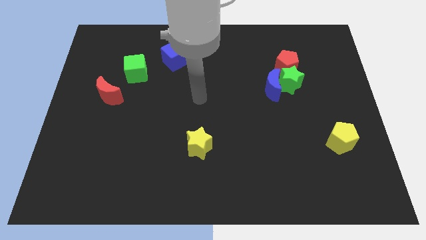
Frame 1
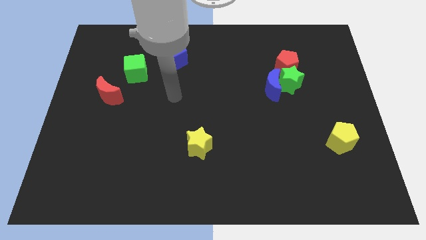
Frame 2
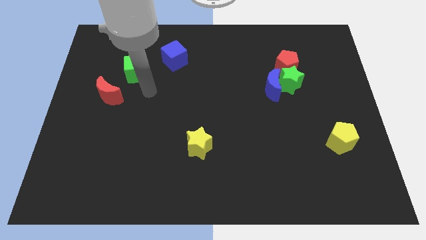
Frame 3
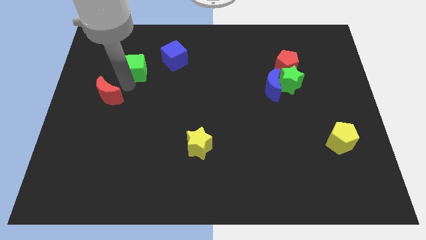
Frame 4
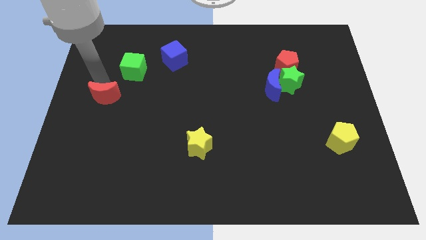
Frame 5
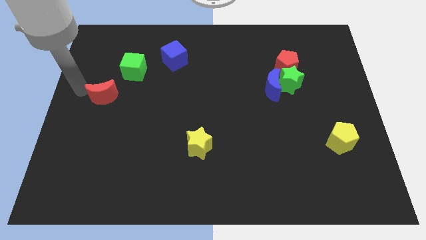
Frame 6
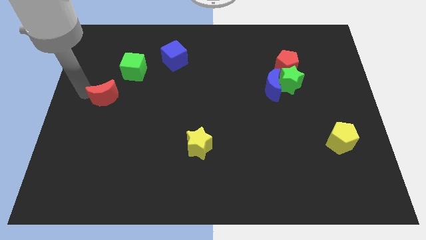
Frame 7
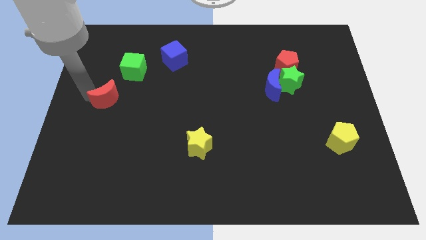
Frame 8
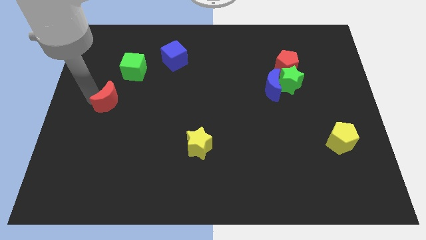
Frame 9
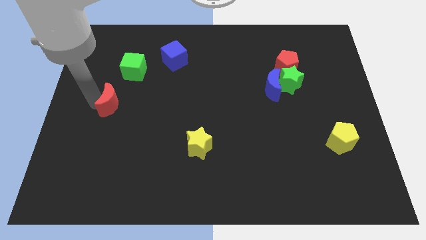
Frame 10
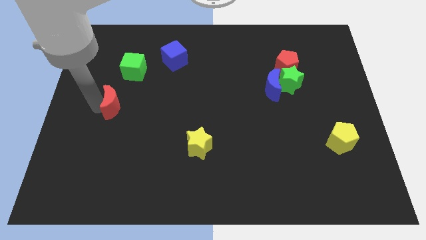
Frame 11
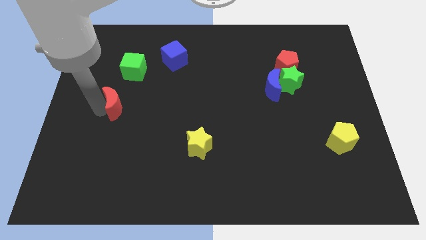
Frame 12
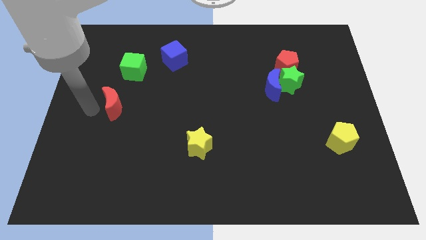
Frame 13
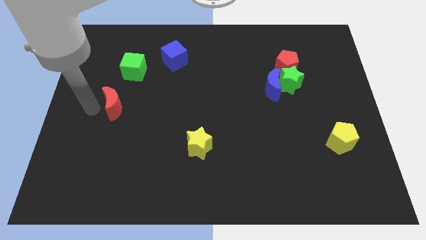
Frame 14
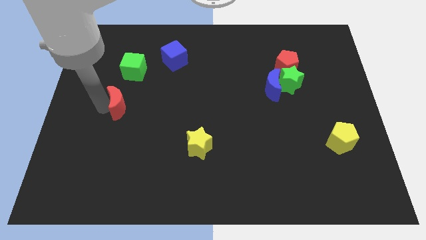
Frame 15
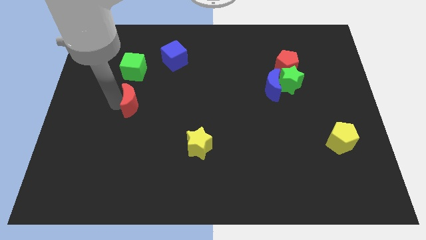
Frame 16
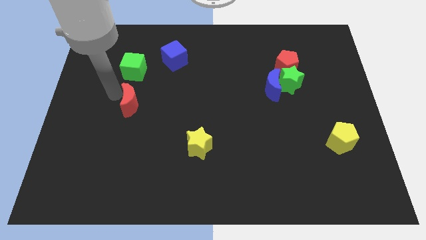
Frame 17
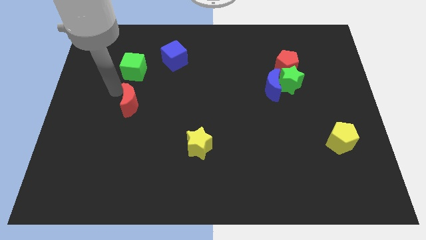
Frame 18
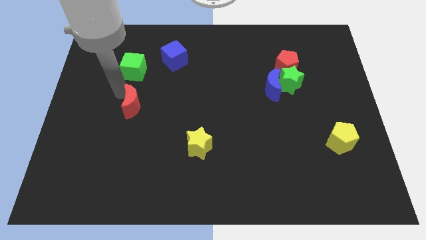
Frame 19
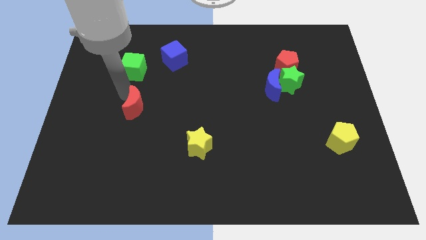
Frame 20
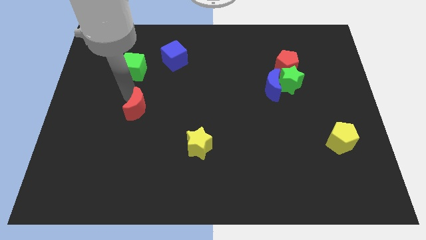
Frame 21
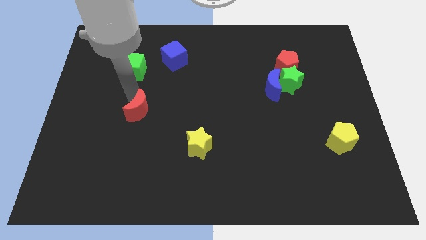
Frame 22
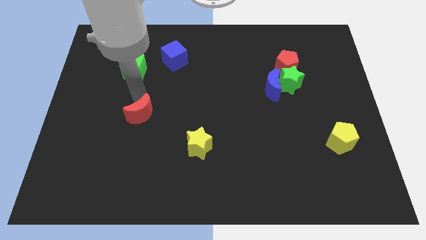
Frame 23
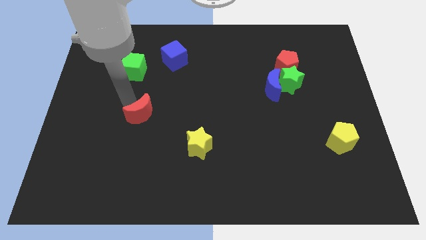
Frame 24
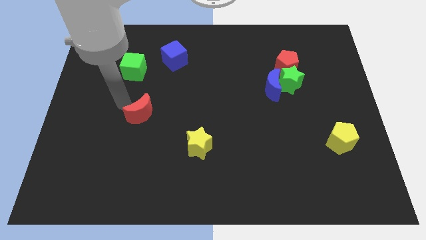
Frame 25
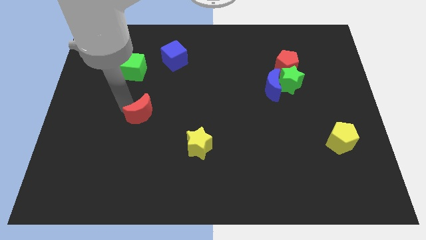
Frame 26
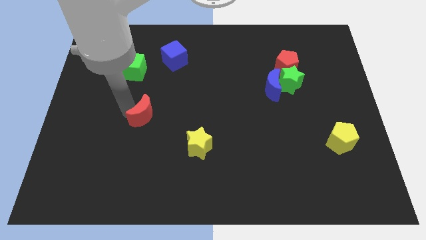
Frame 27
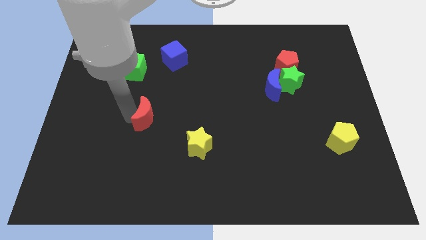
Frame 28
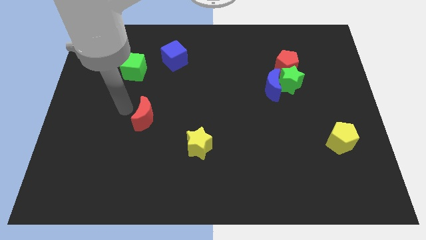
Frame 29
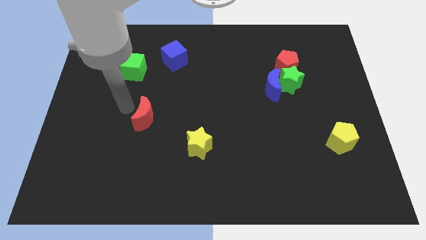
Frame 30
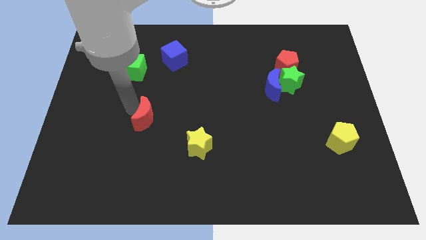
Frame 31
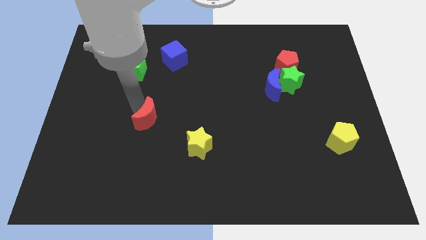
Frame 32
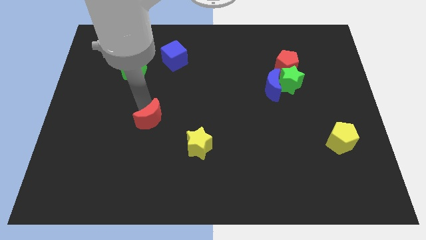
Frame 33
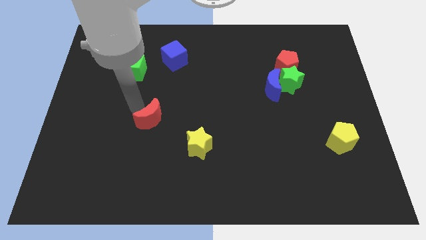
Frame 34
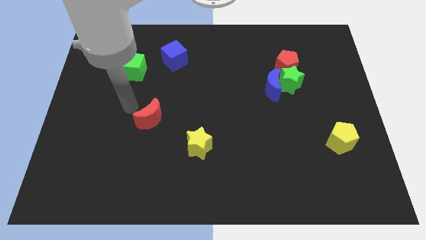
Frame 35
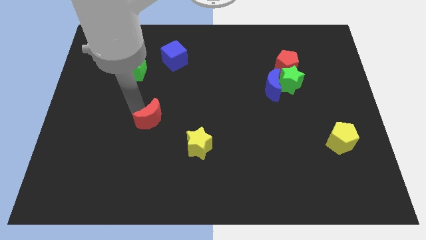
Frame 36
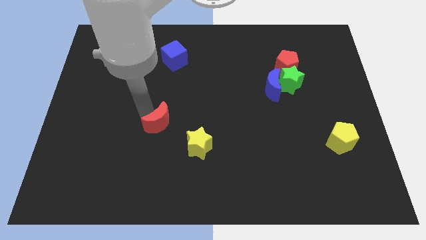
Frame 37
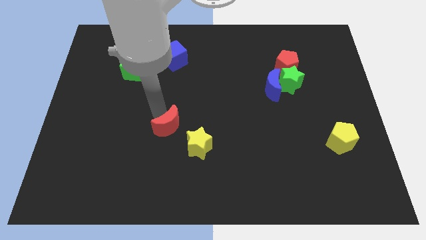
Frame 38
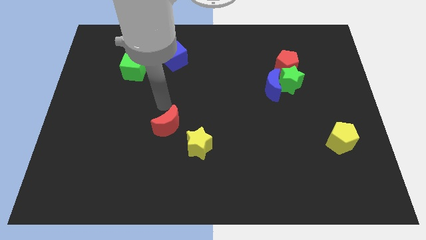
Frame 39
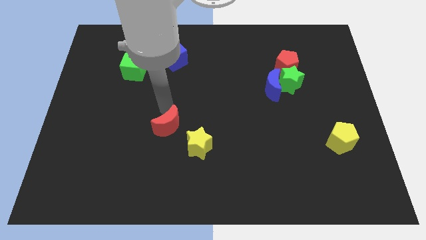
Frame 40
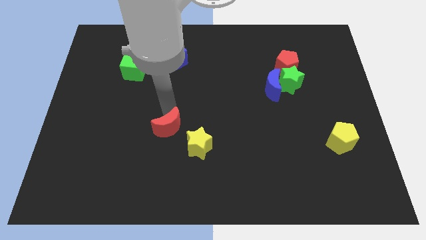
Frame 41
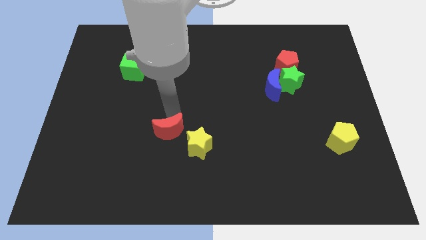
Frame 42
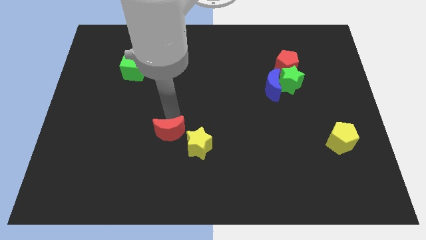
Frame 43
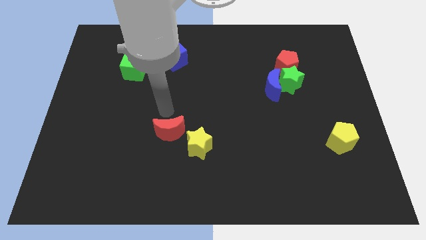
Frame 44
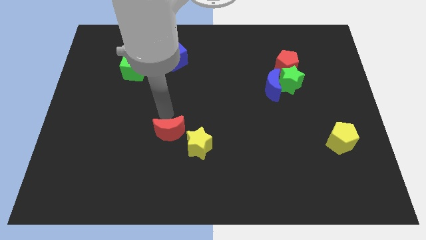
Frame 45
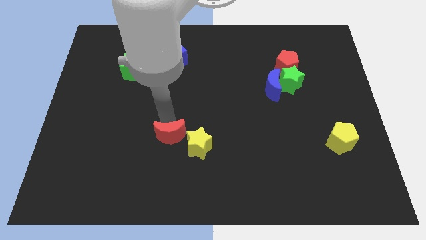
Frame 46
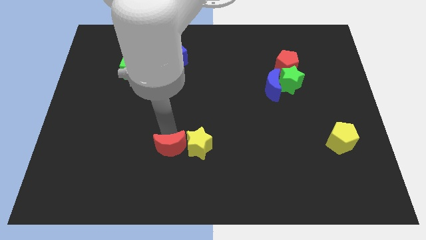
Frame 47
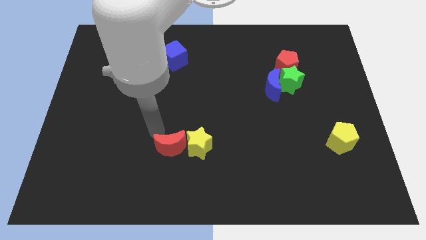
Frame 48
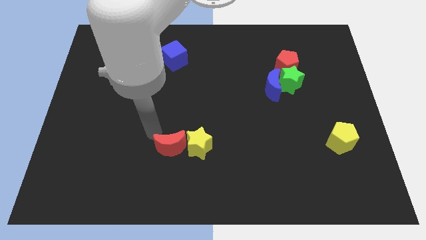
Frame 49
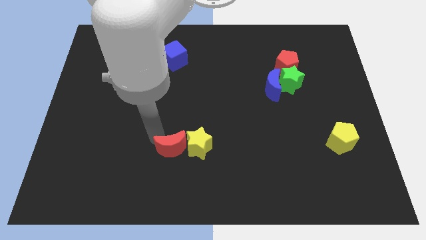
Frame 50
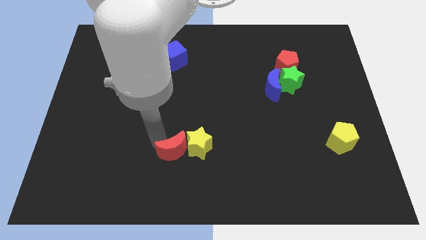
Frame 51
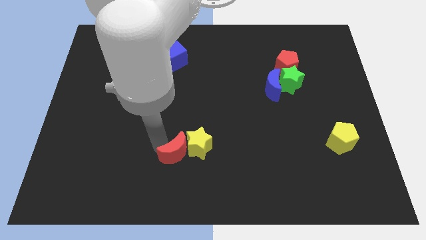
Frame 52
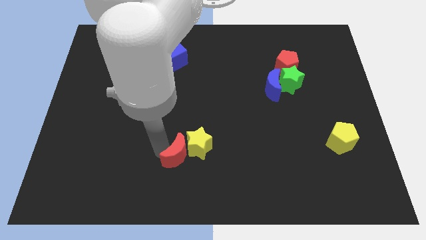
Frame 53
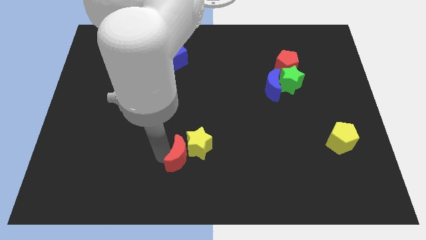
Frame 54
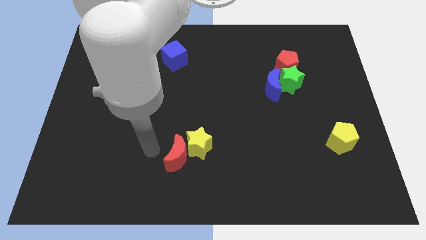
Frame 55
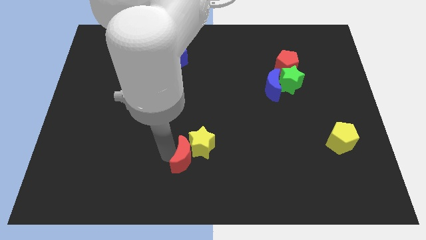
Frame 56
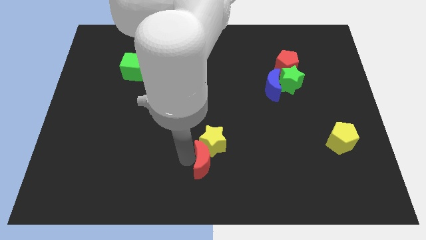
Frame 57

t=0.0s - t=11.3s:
put the red moon to the bottom right side of the yellow star

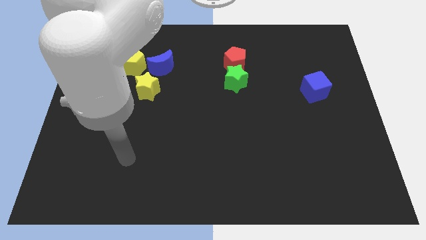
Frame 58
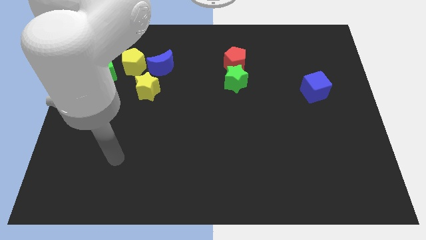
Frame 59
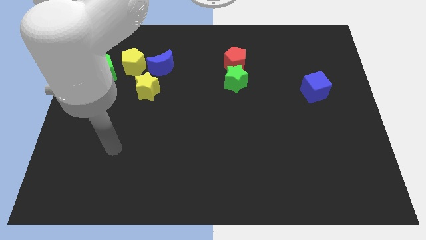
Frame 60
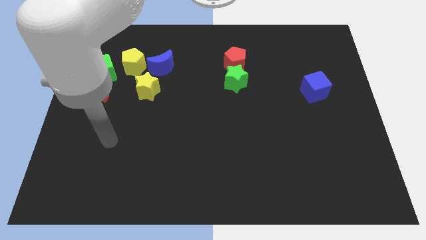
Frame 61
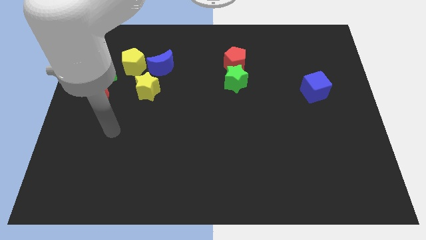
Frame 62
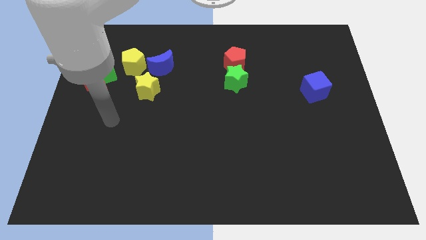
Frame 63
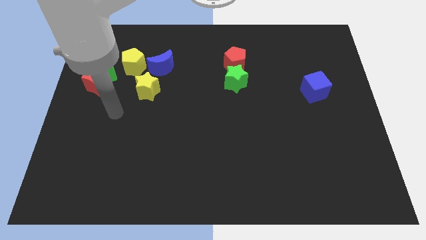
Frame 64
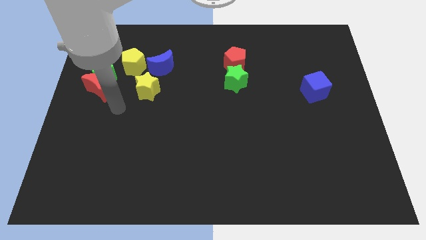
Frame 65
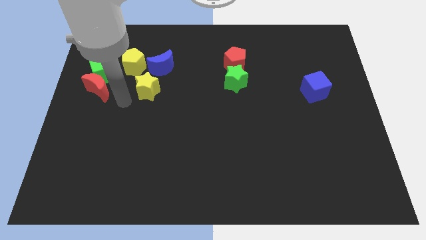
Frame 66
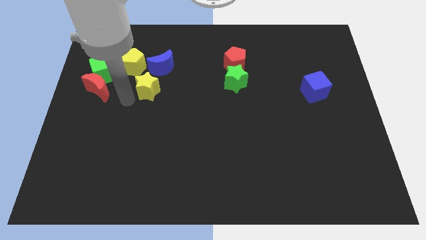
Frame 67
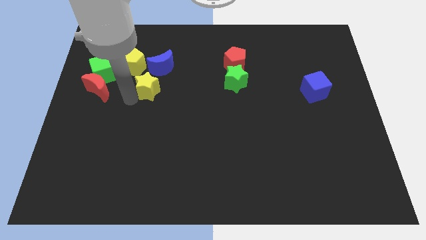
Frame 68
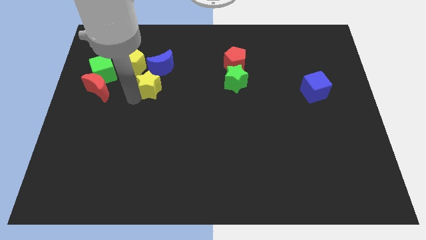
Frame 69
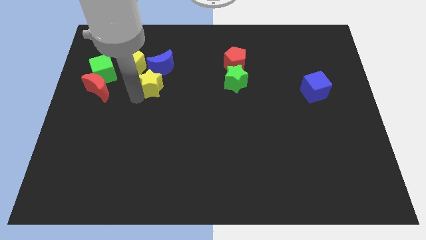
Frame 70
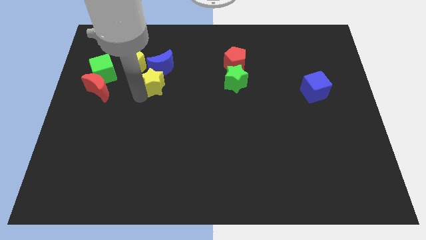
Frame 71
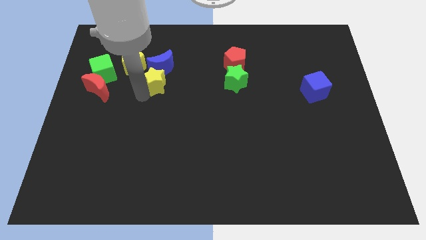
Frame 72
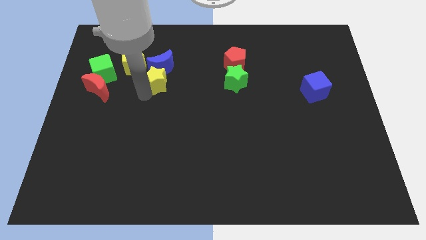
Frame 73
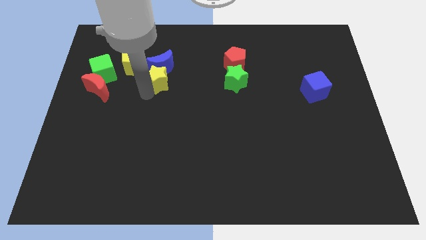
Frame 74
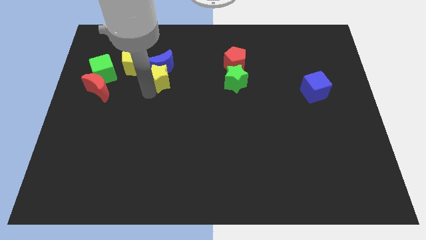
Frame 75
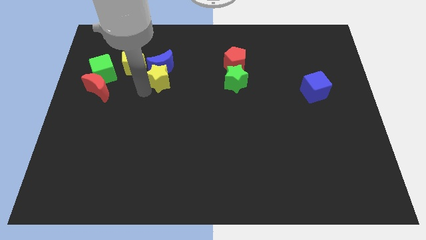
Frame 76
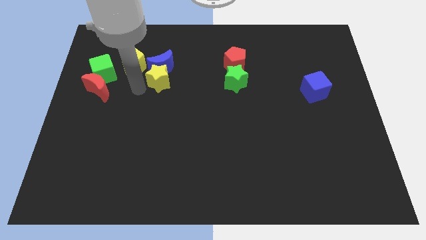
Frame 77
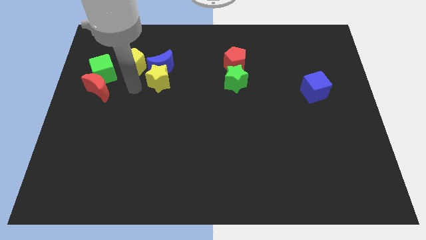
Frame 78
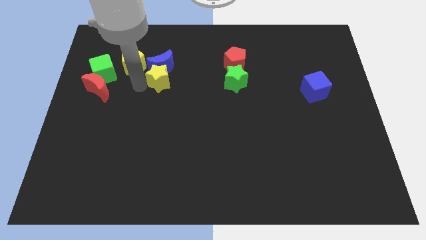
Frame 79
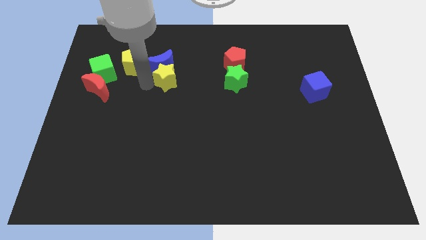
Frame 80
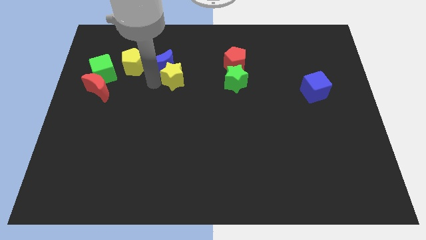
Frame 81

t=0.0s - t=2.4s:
slide the yellow star just right of the blue moon
